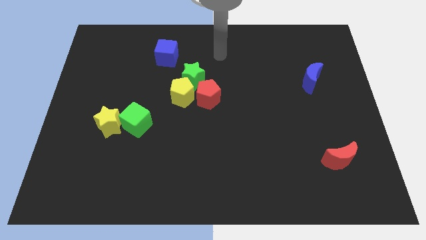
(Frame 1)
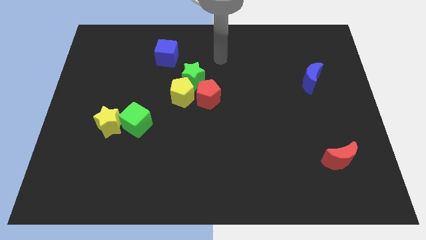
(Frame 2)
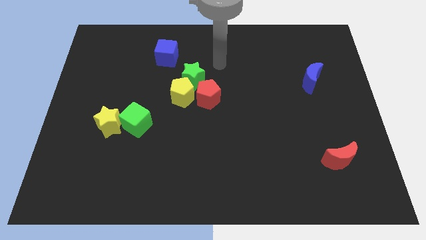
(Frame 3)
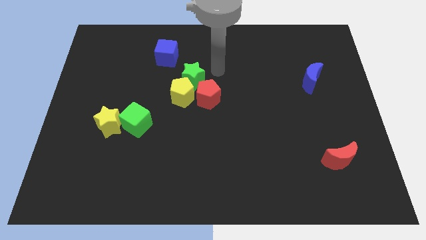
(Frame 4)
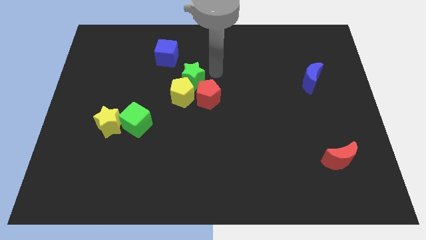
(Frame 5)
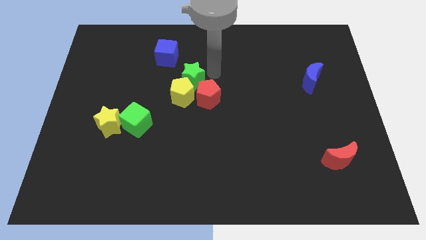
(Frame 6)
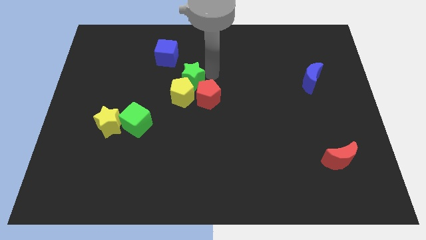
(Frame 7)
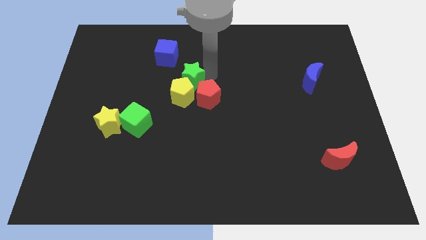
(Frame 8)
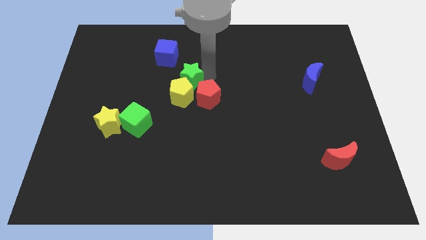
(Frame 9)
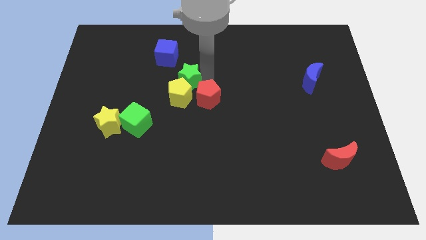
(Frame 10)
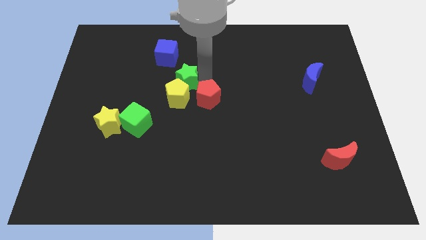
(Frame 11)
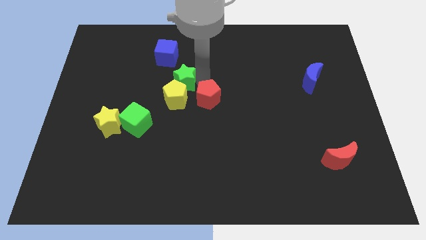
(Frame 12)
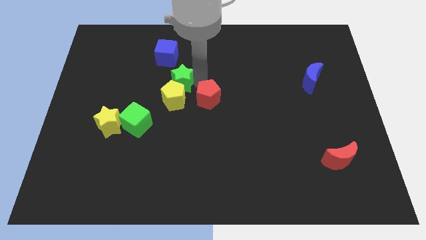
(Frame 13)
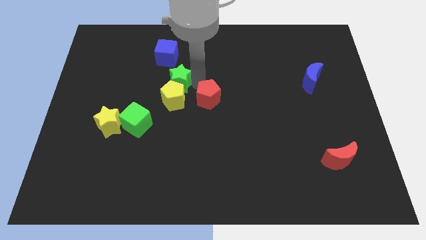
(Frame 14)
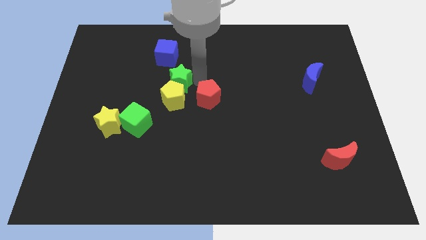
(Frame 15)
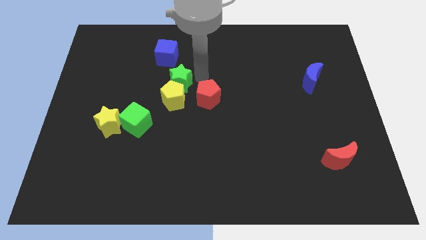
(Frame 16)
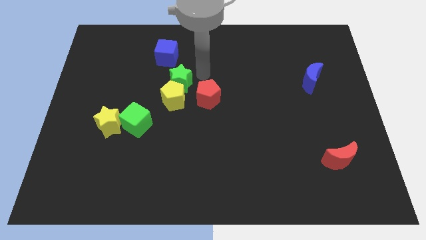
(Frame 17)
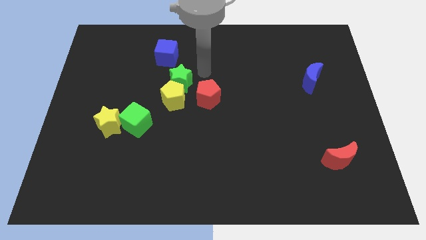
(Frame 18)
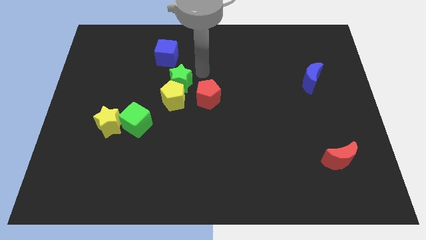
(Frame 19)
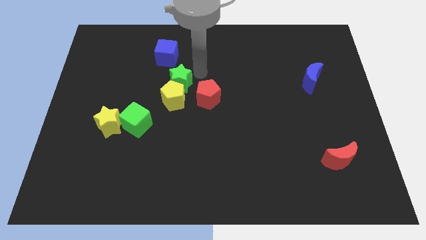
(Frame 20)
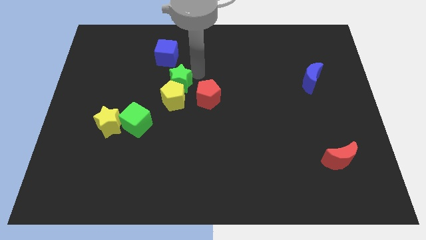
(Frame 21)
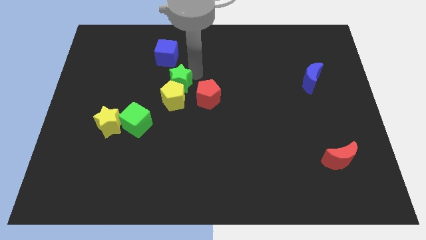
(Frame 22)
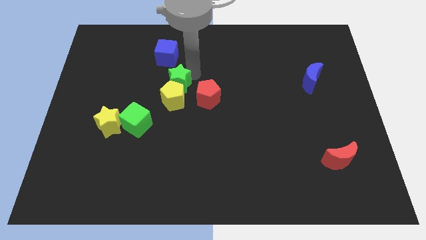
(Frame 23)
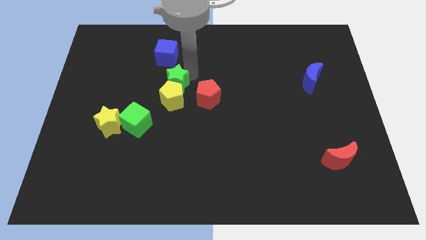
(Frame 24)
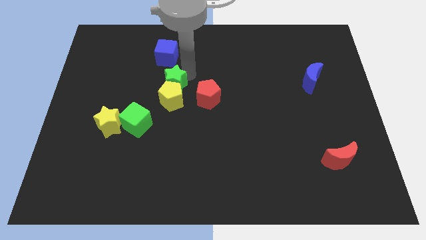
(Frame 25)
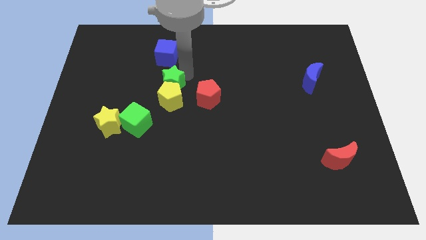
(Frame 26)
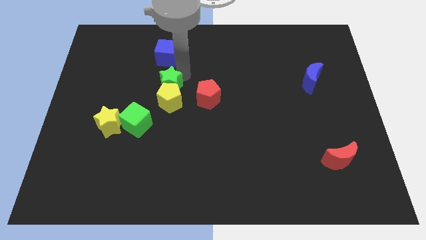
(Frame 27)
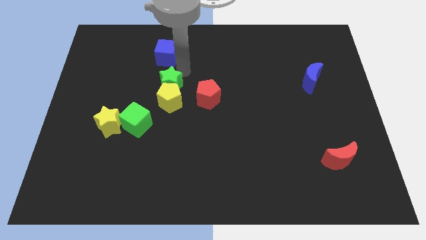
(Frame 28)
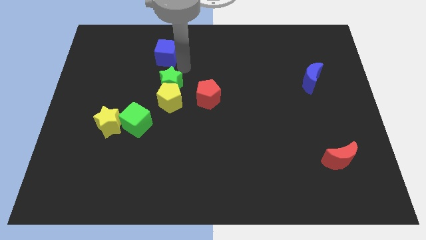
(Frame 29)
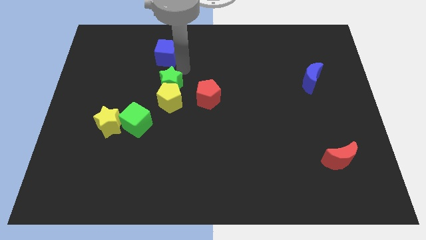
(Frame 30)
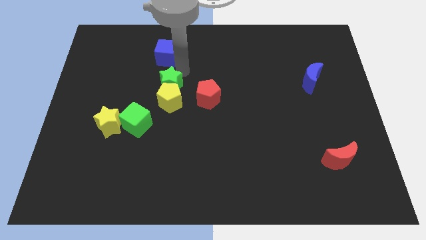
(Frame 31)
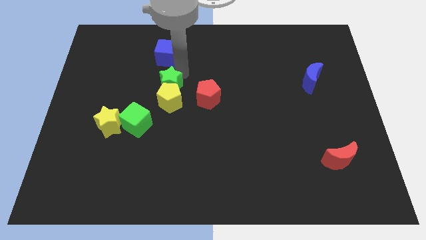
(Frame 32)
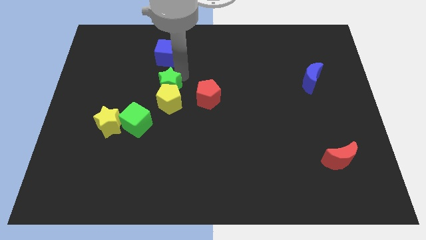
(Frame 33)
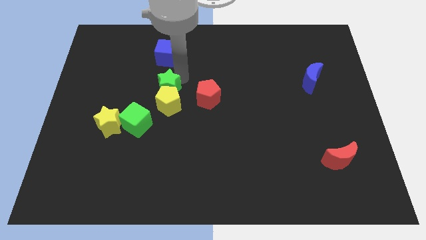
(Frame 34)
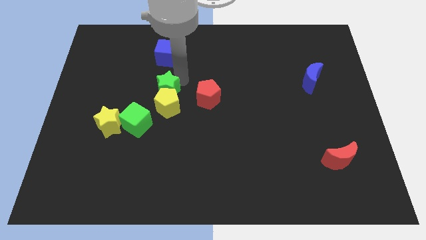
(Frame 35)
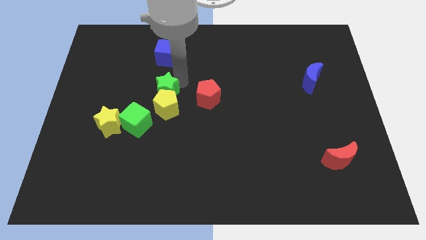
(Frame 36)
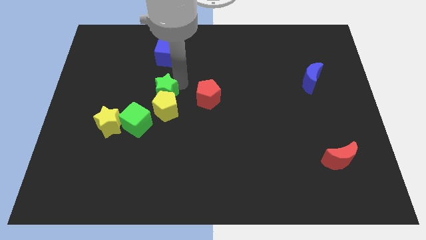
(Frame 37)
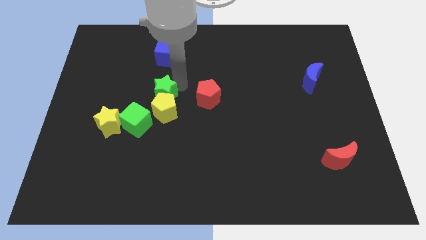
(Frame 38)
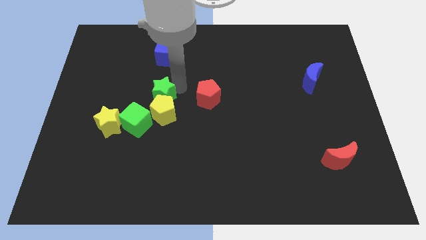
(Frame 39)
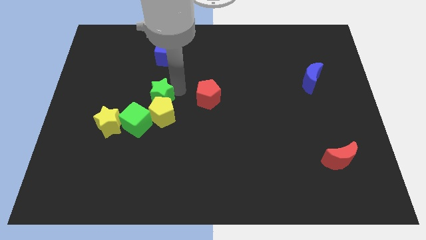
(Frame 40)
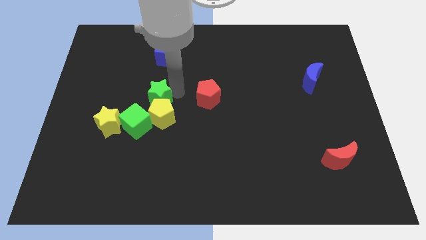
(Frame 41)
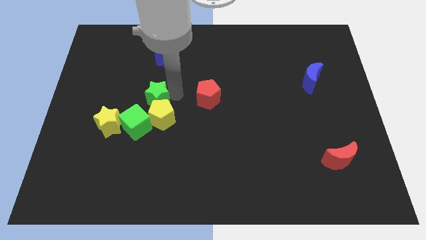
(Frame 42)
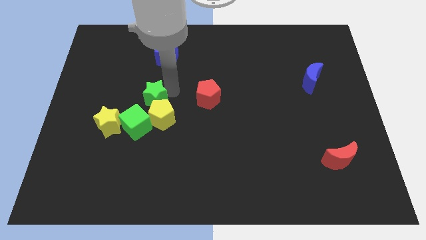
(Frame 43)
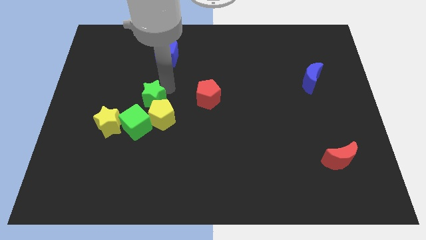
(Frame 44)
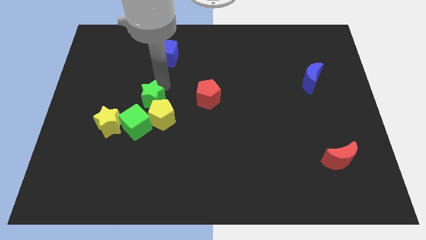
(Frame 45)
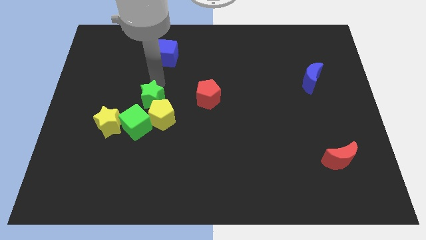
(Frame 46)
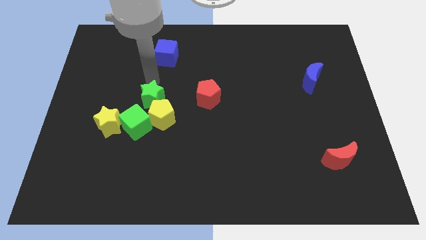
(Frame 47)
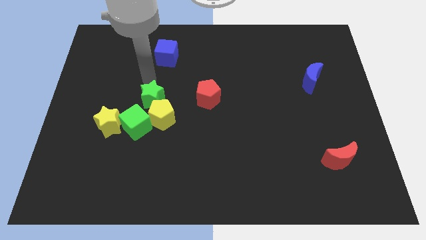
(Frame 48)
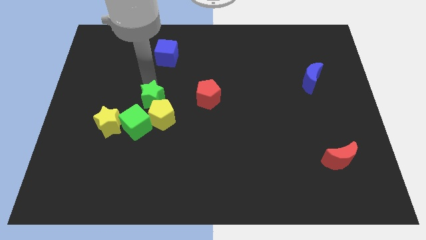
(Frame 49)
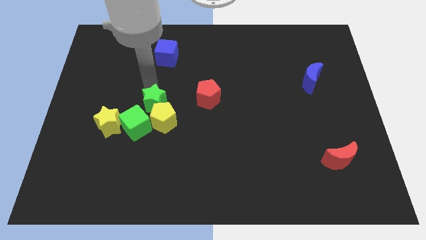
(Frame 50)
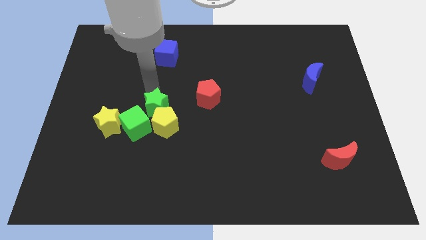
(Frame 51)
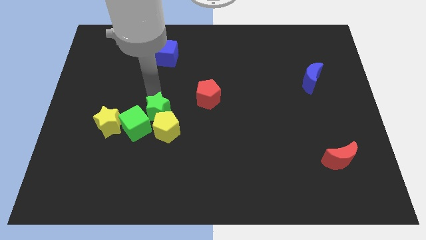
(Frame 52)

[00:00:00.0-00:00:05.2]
slightly push the green star downwards

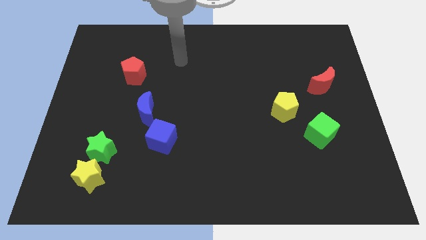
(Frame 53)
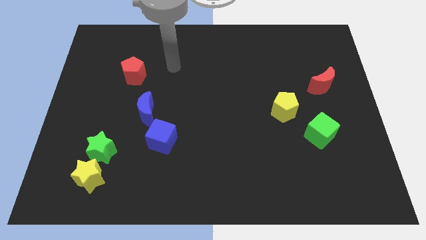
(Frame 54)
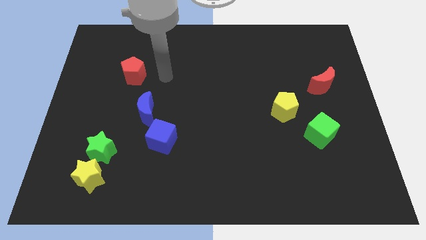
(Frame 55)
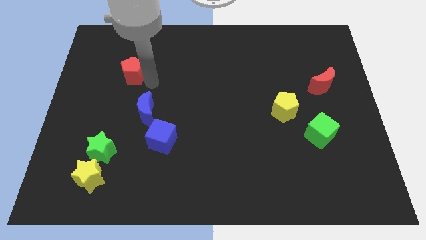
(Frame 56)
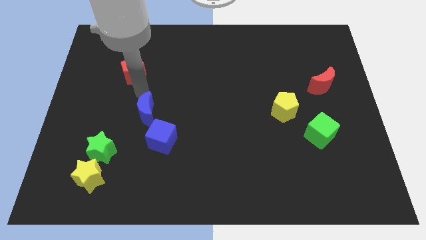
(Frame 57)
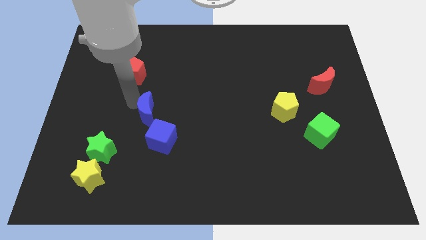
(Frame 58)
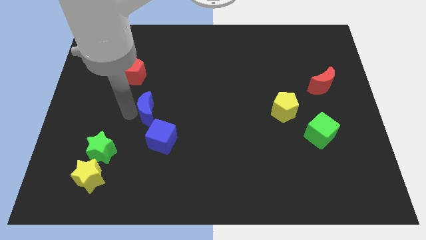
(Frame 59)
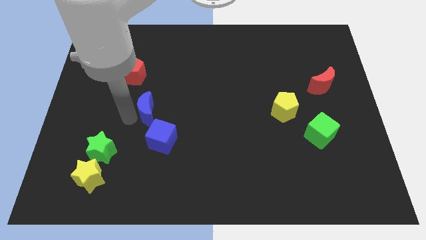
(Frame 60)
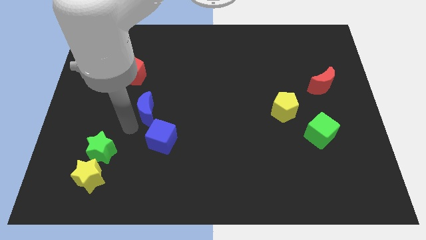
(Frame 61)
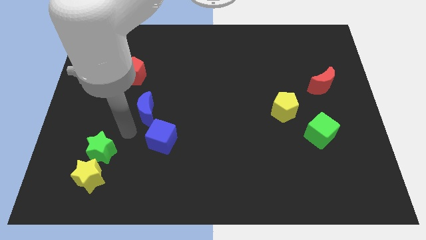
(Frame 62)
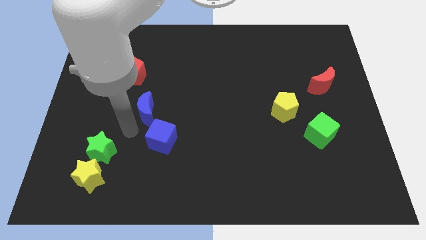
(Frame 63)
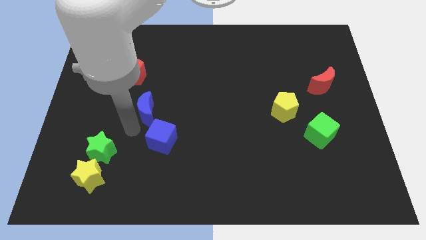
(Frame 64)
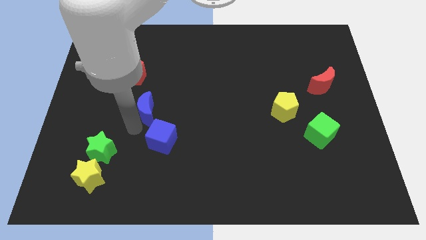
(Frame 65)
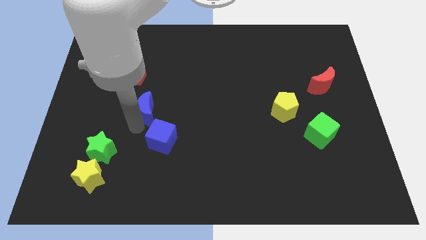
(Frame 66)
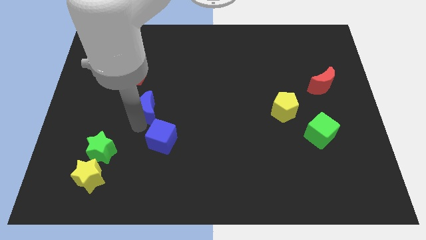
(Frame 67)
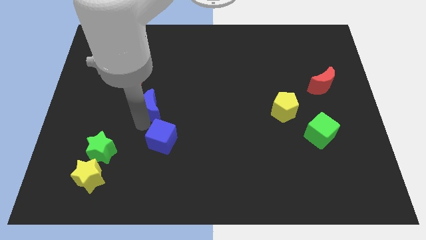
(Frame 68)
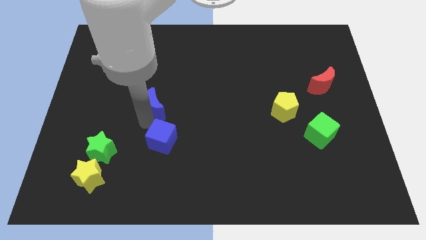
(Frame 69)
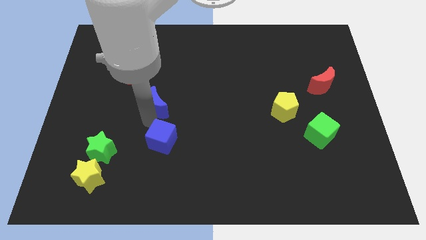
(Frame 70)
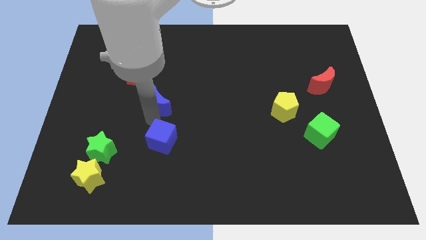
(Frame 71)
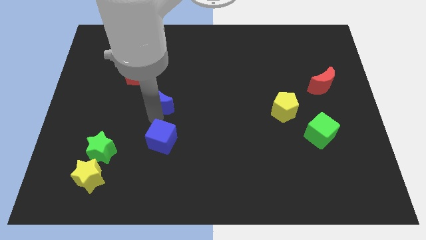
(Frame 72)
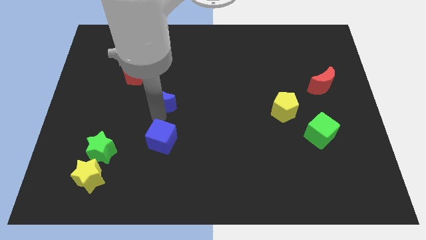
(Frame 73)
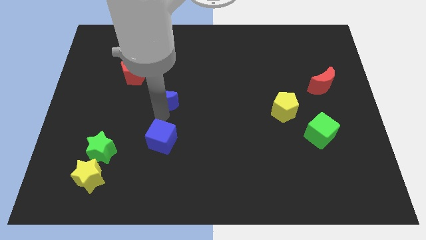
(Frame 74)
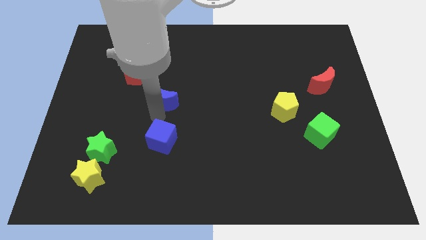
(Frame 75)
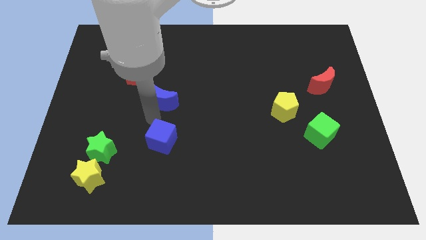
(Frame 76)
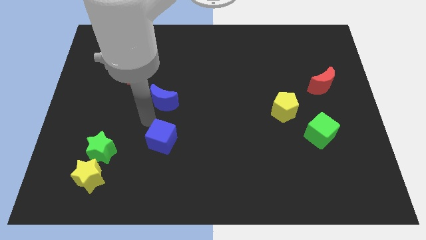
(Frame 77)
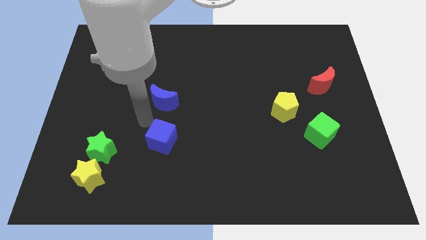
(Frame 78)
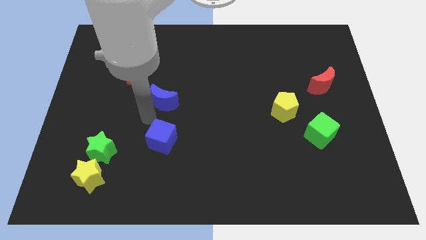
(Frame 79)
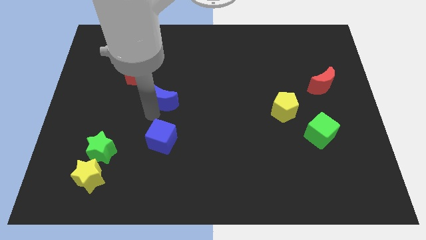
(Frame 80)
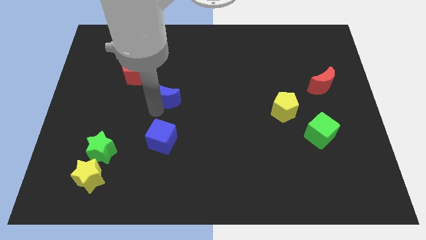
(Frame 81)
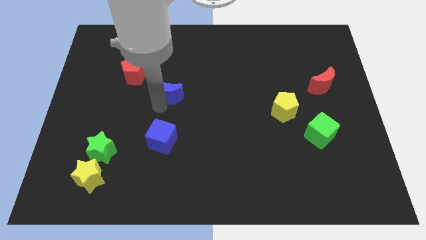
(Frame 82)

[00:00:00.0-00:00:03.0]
move the blue moon up and then right a little
